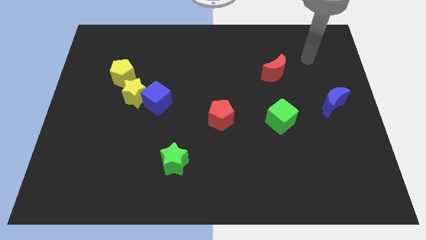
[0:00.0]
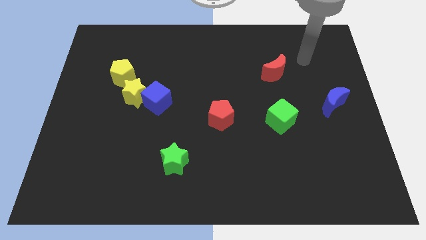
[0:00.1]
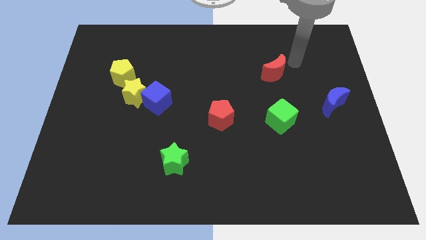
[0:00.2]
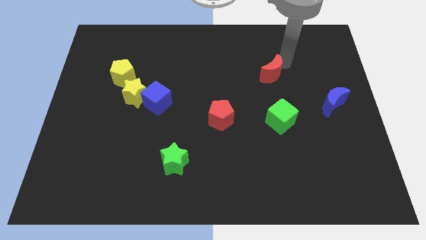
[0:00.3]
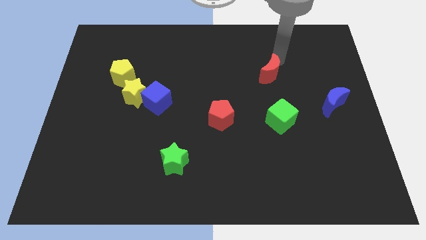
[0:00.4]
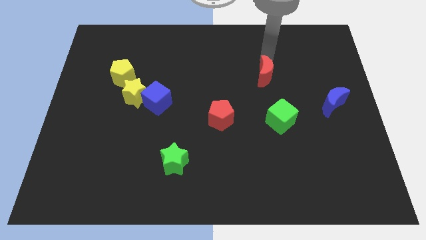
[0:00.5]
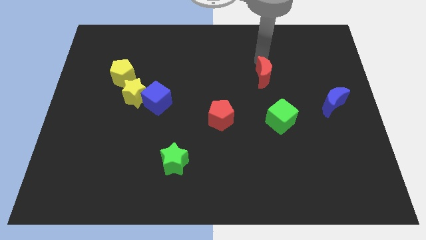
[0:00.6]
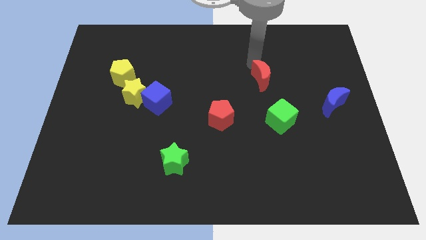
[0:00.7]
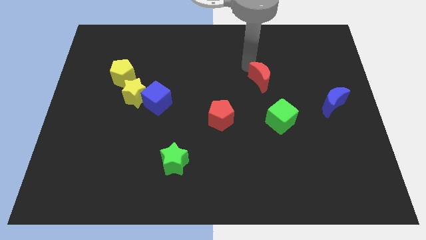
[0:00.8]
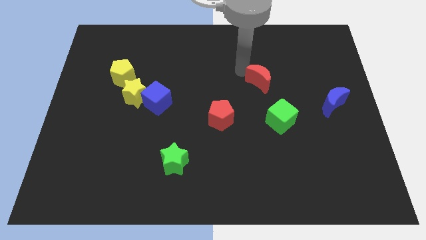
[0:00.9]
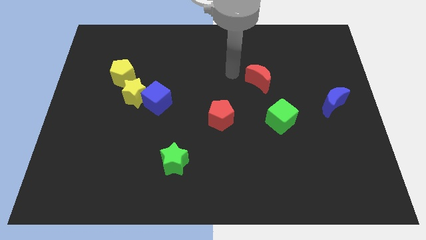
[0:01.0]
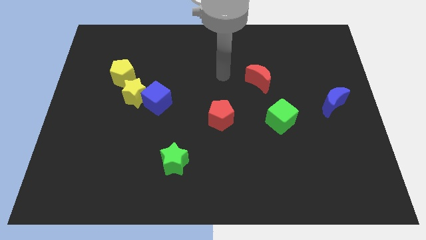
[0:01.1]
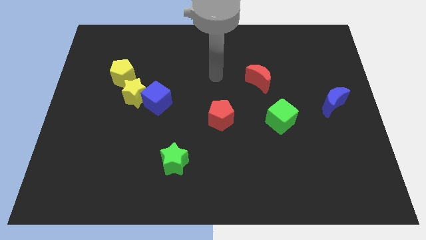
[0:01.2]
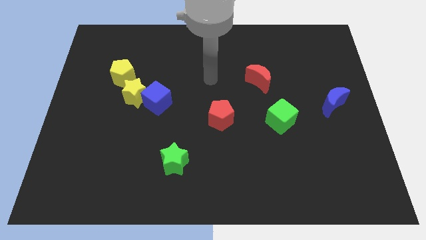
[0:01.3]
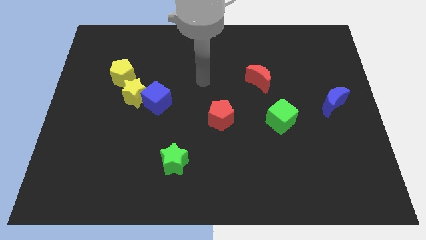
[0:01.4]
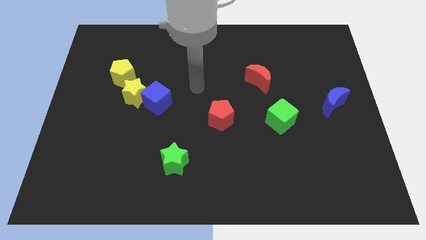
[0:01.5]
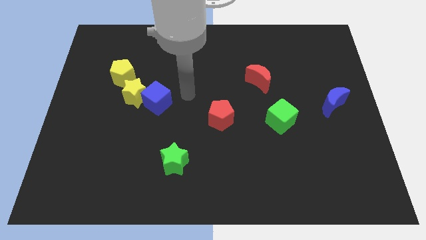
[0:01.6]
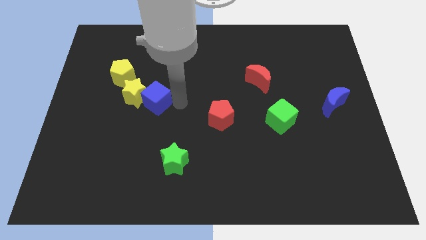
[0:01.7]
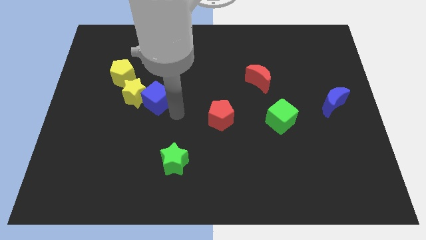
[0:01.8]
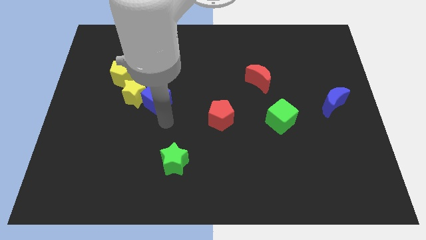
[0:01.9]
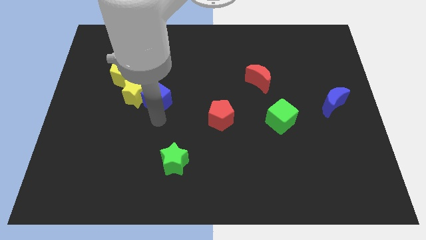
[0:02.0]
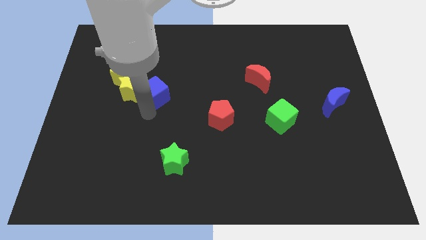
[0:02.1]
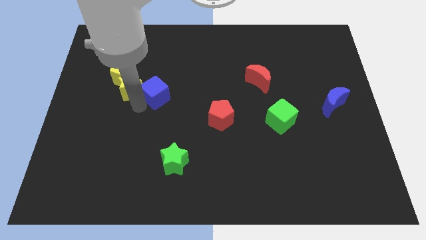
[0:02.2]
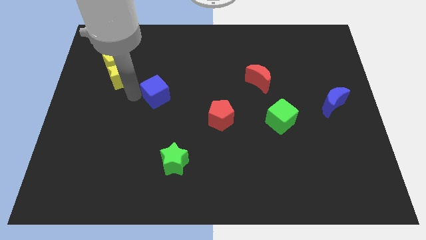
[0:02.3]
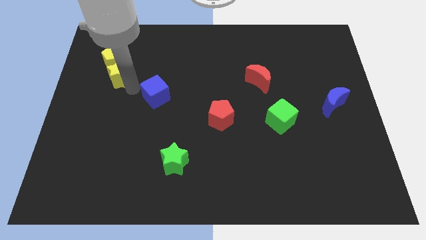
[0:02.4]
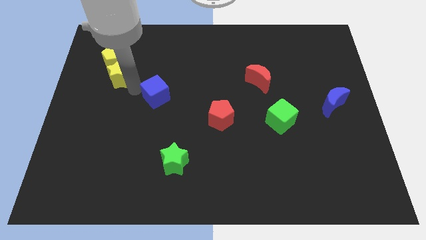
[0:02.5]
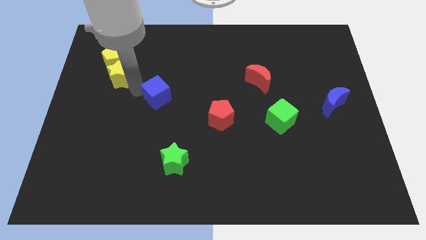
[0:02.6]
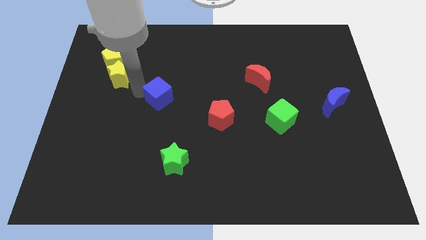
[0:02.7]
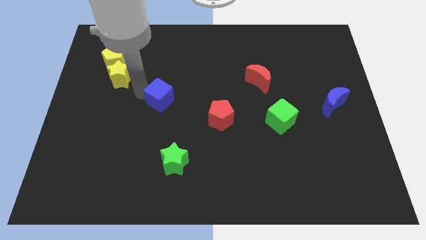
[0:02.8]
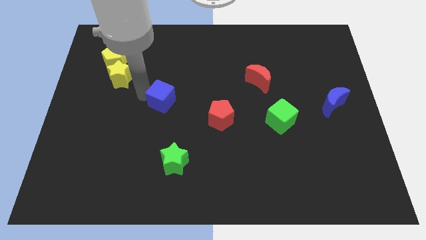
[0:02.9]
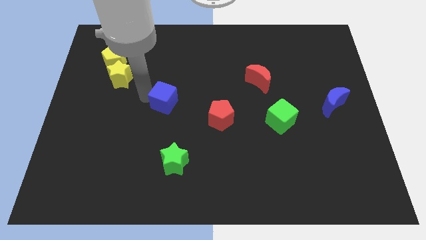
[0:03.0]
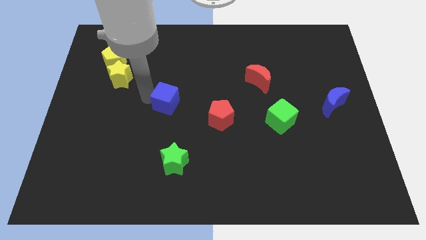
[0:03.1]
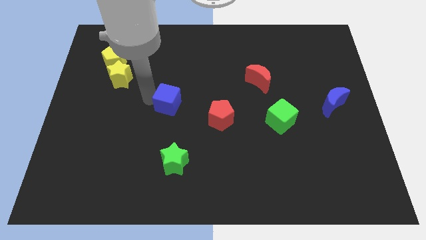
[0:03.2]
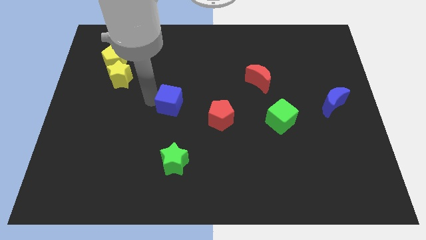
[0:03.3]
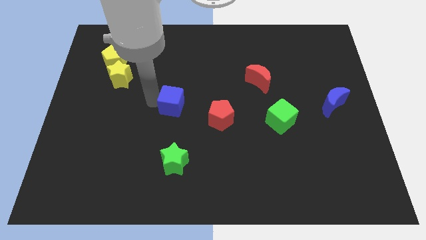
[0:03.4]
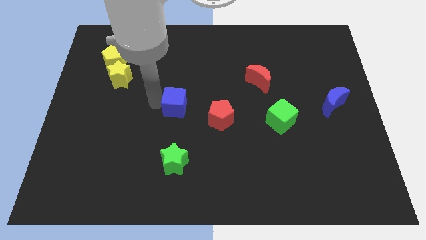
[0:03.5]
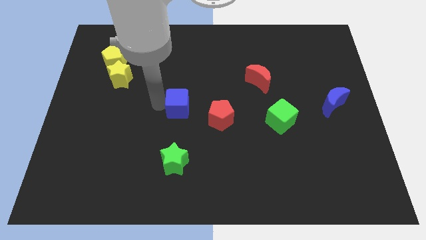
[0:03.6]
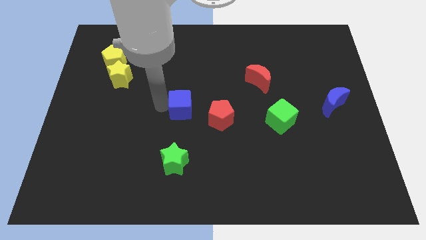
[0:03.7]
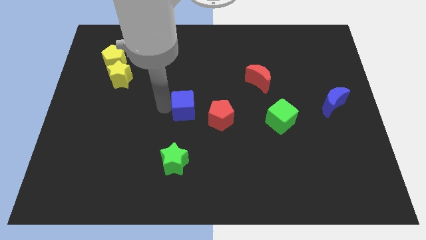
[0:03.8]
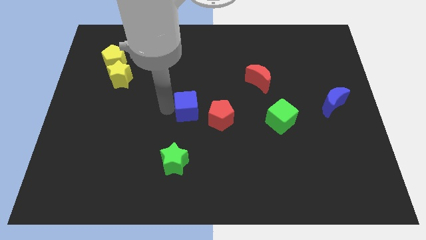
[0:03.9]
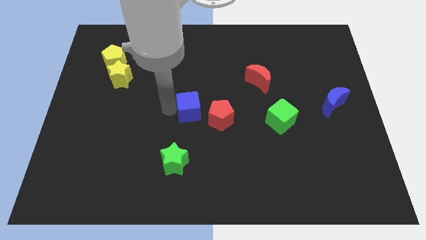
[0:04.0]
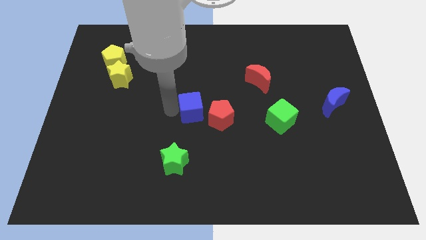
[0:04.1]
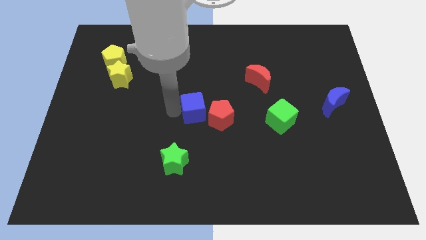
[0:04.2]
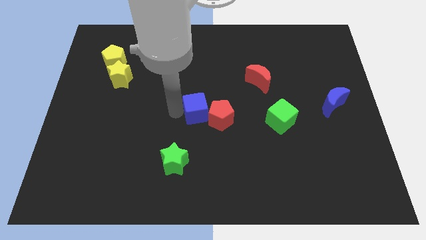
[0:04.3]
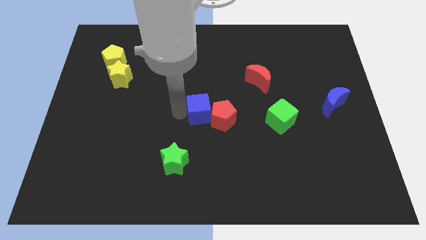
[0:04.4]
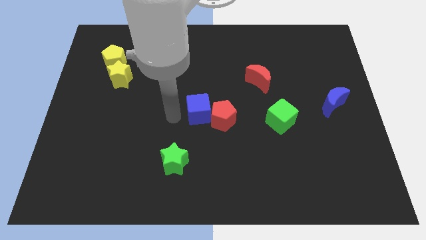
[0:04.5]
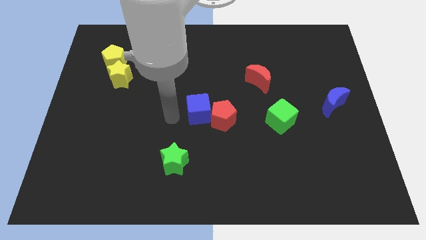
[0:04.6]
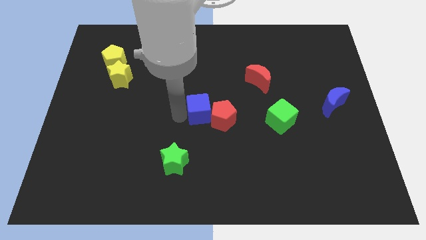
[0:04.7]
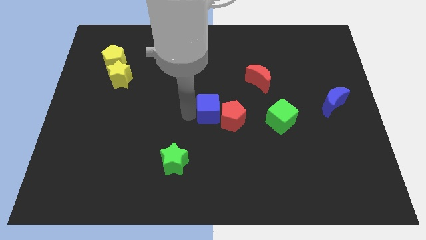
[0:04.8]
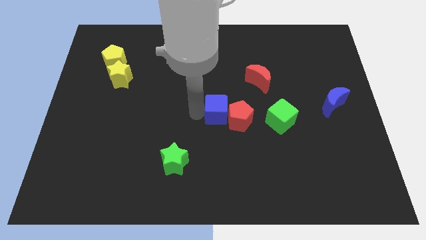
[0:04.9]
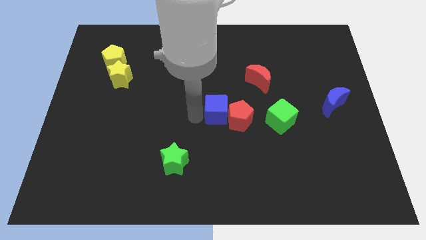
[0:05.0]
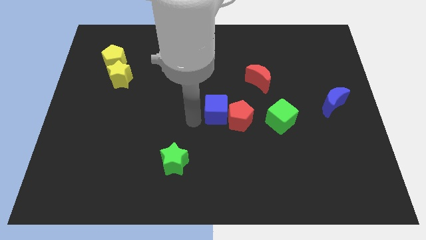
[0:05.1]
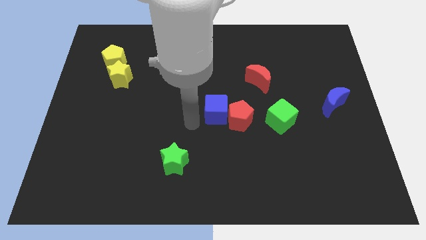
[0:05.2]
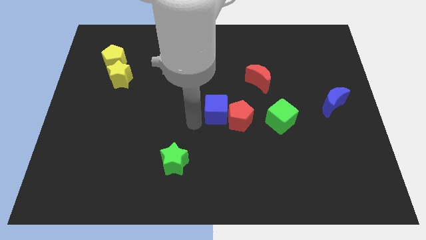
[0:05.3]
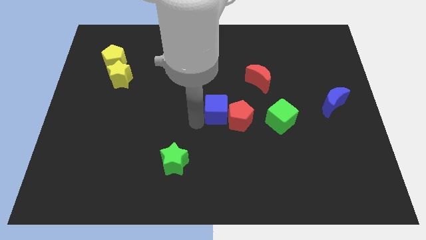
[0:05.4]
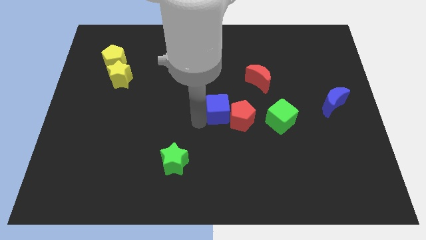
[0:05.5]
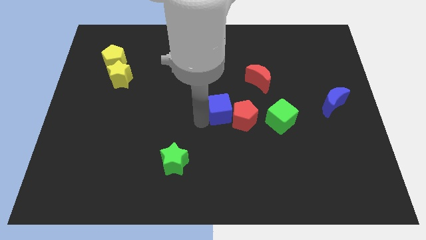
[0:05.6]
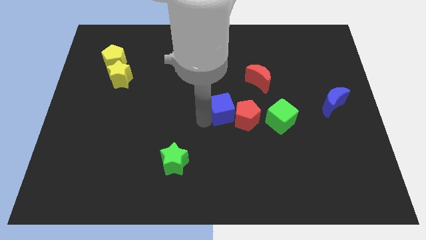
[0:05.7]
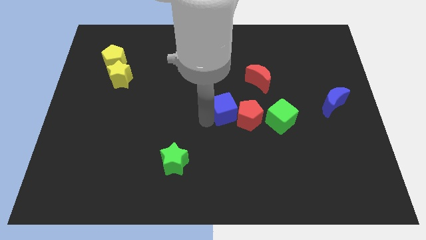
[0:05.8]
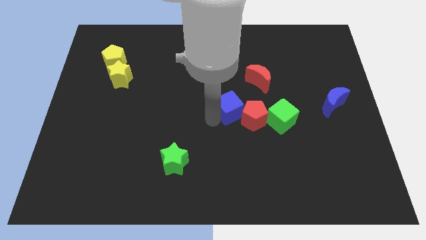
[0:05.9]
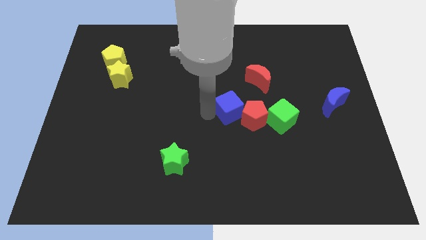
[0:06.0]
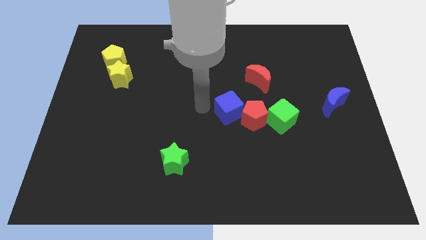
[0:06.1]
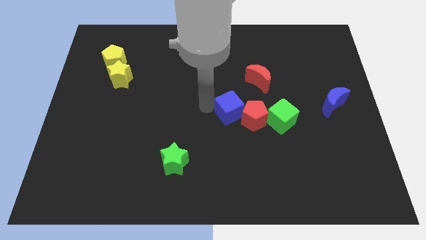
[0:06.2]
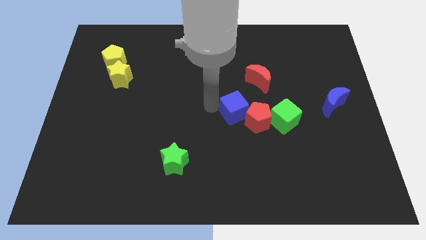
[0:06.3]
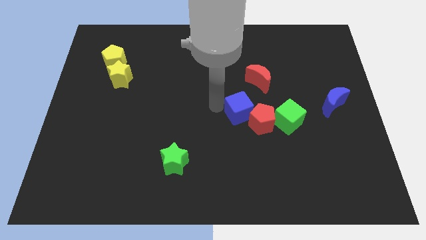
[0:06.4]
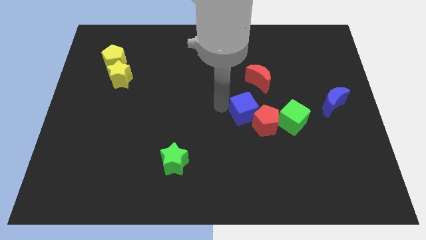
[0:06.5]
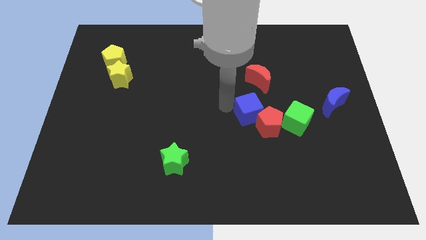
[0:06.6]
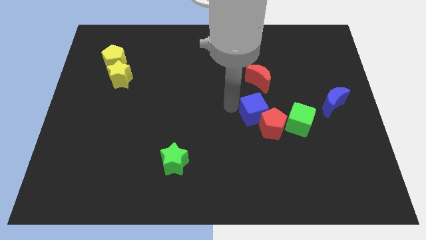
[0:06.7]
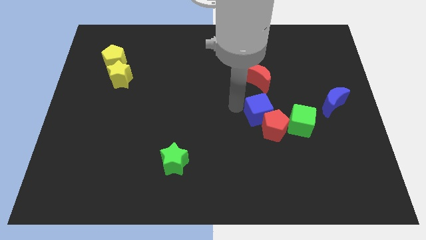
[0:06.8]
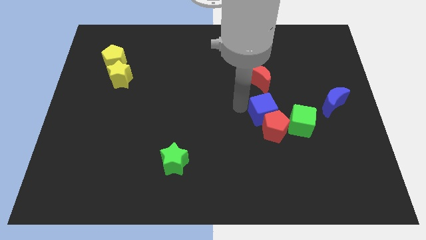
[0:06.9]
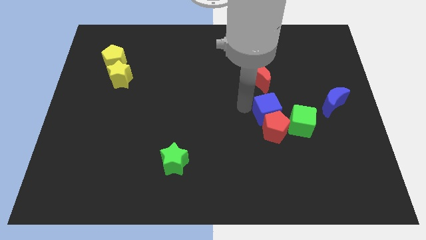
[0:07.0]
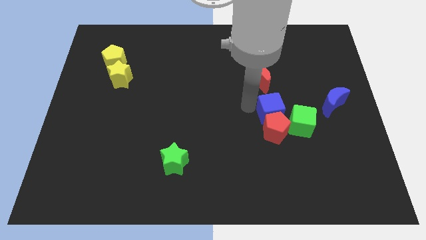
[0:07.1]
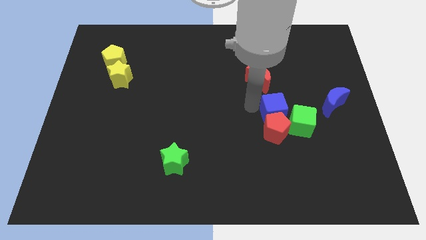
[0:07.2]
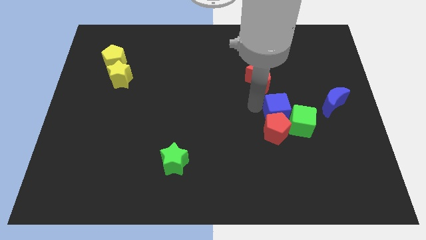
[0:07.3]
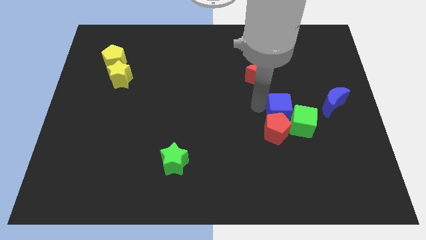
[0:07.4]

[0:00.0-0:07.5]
move the blue cube close to the green cube

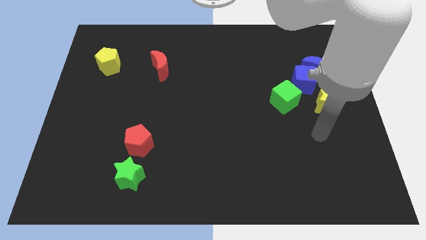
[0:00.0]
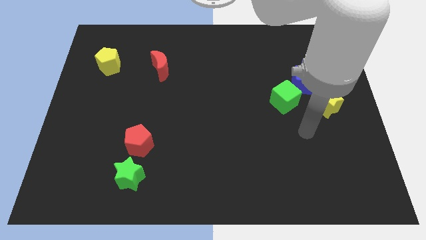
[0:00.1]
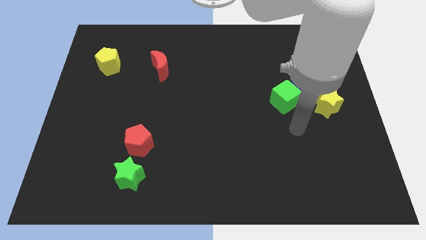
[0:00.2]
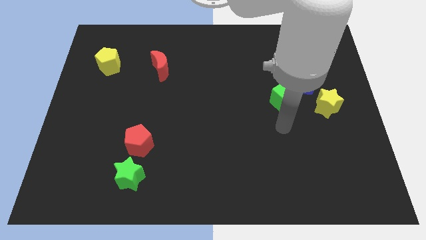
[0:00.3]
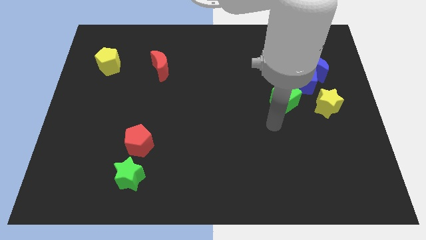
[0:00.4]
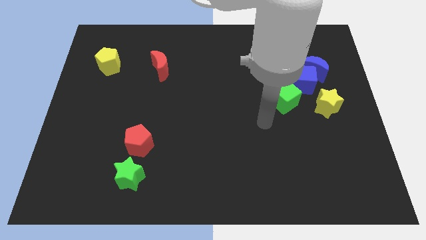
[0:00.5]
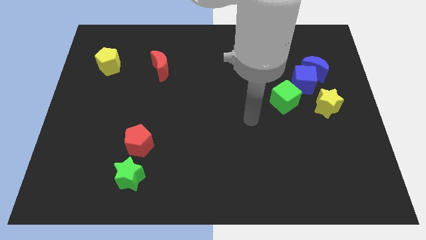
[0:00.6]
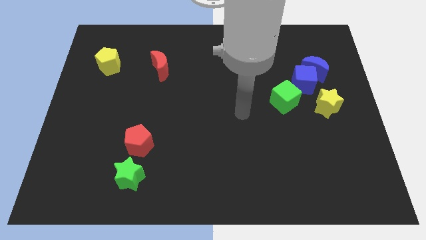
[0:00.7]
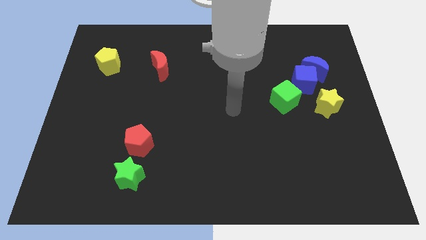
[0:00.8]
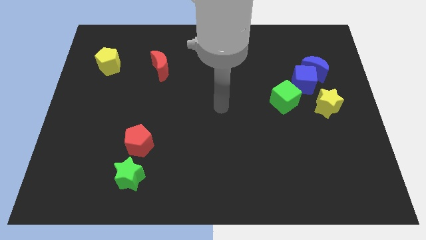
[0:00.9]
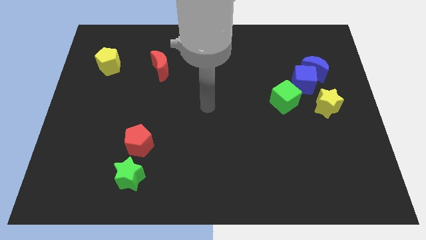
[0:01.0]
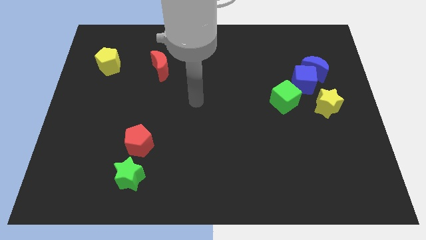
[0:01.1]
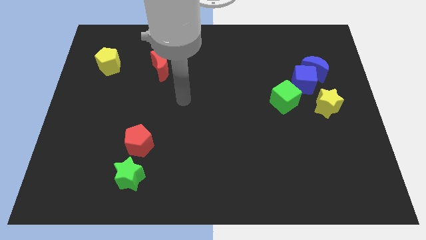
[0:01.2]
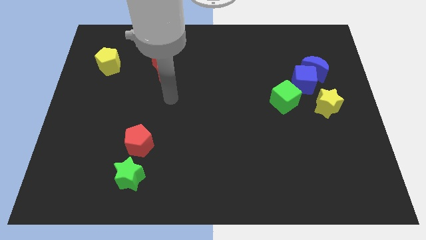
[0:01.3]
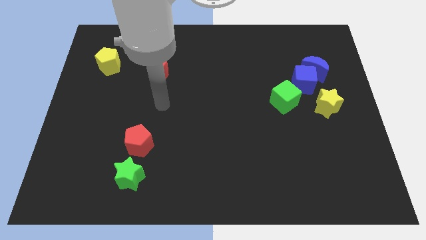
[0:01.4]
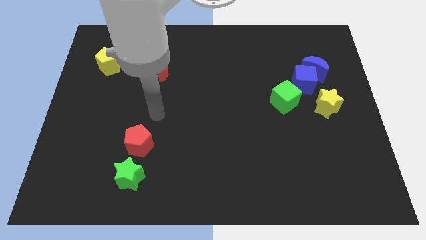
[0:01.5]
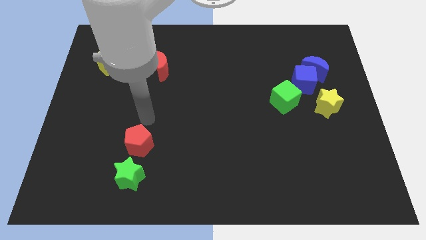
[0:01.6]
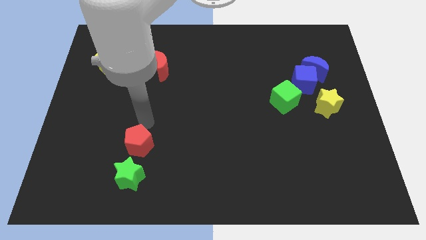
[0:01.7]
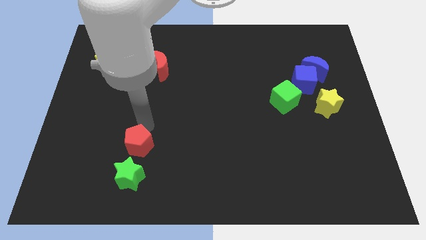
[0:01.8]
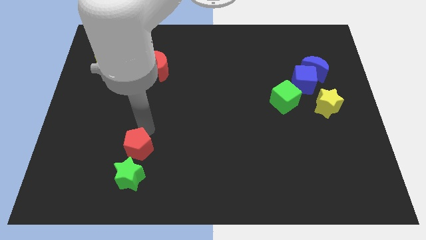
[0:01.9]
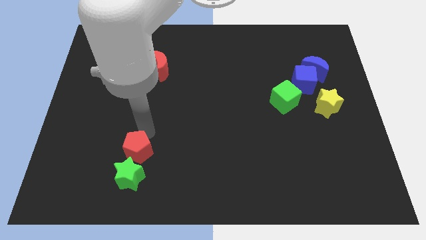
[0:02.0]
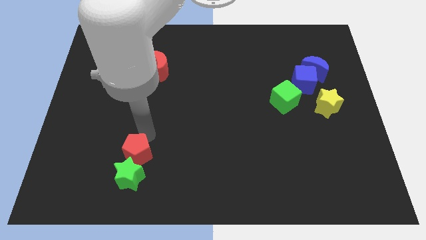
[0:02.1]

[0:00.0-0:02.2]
slide the red pentagon next to the green star
